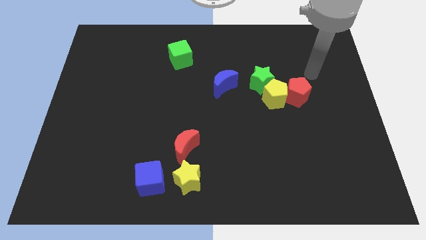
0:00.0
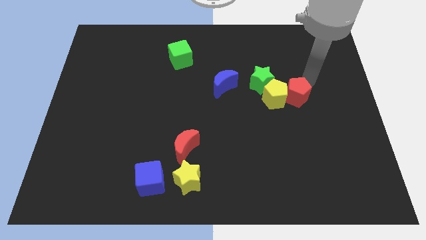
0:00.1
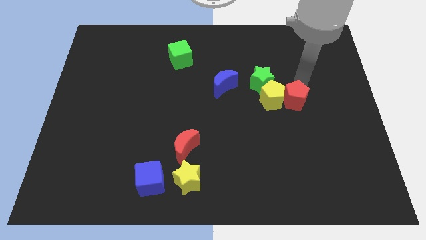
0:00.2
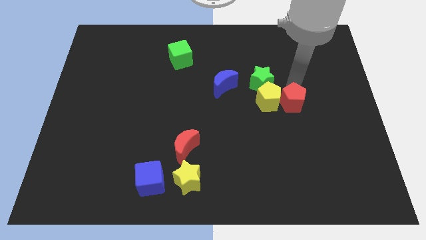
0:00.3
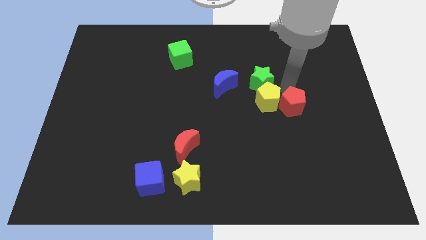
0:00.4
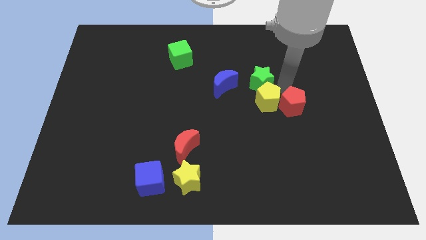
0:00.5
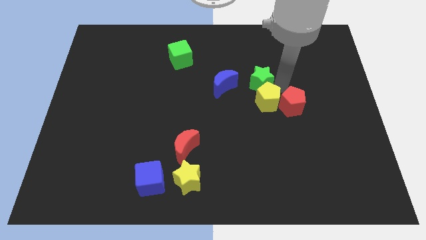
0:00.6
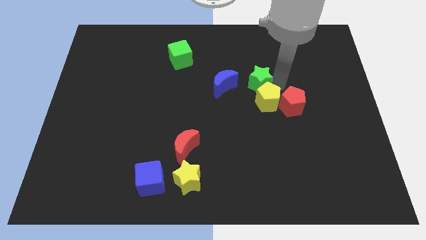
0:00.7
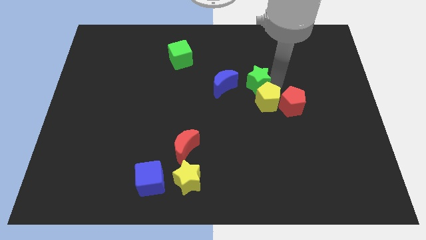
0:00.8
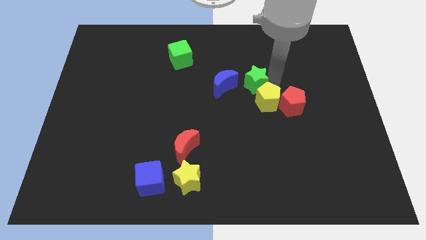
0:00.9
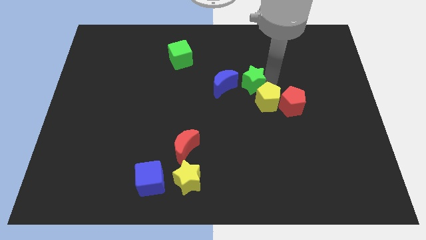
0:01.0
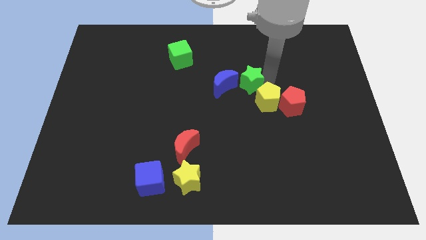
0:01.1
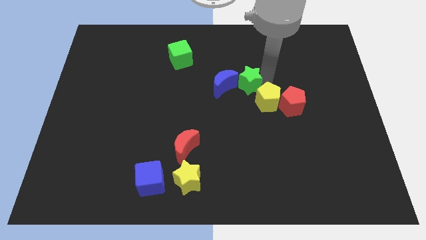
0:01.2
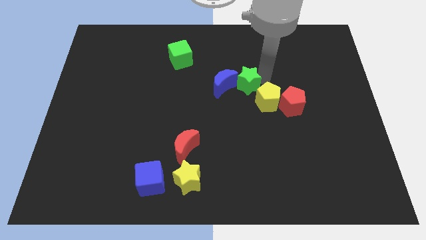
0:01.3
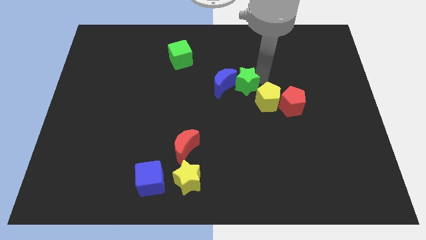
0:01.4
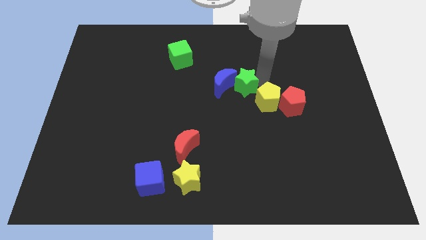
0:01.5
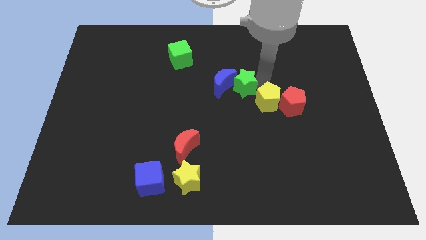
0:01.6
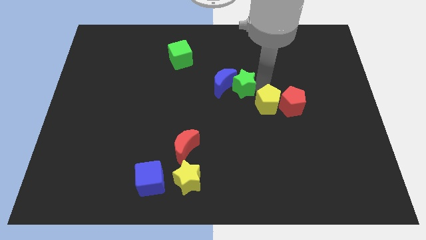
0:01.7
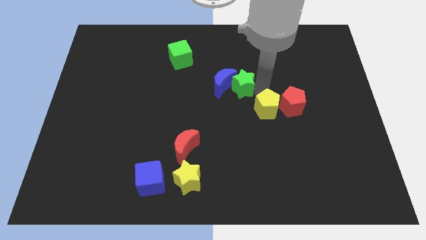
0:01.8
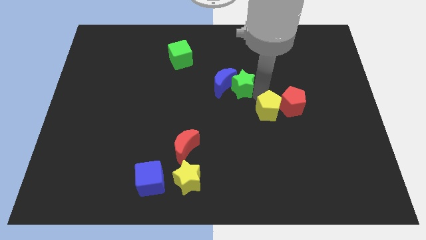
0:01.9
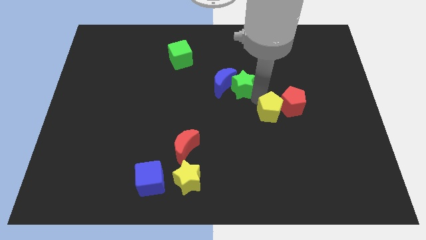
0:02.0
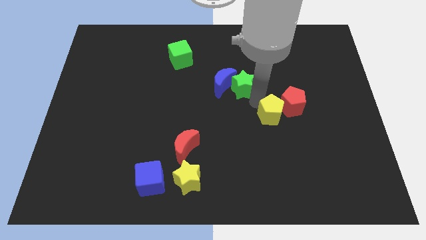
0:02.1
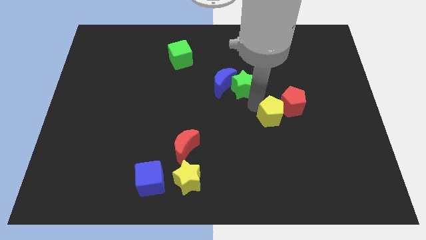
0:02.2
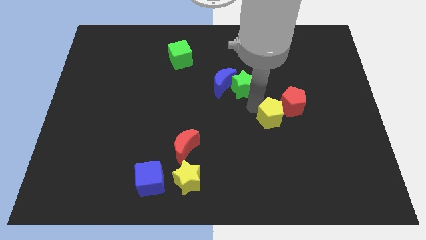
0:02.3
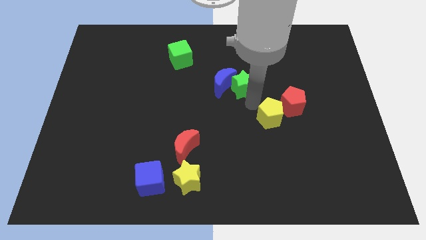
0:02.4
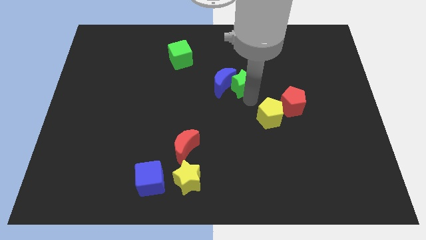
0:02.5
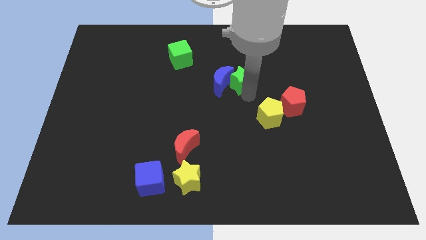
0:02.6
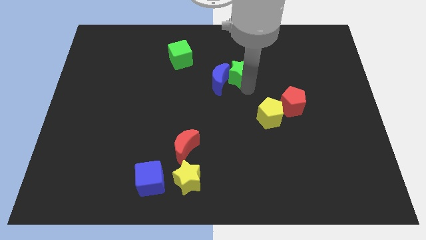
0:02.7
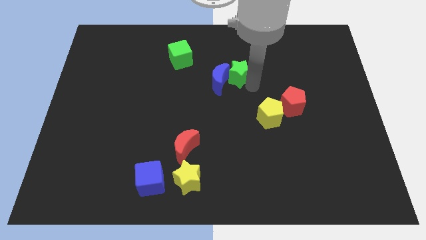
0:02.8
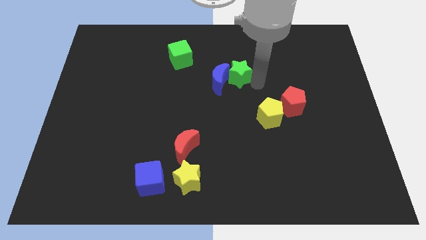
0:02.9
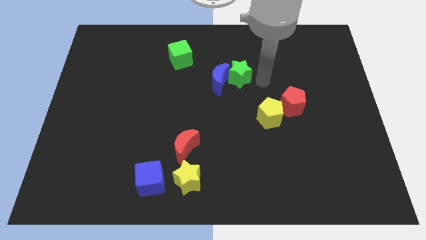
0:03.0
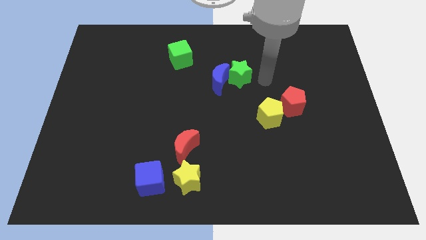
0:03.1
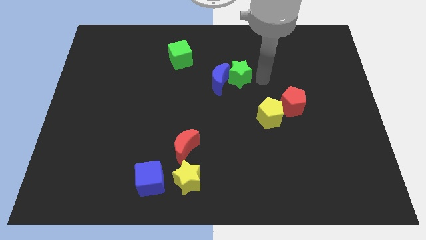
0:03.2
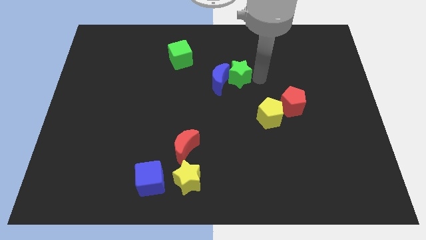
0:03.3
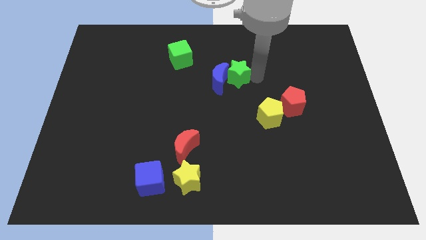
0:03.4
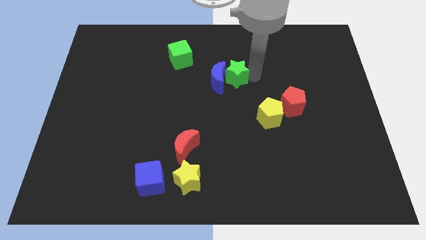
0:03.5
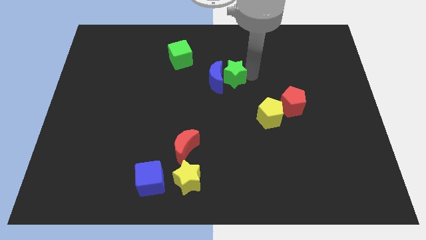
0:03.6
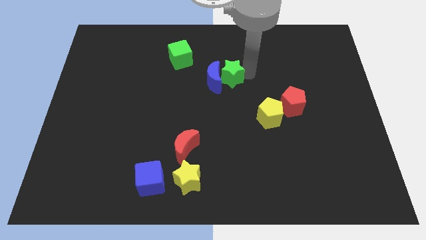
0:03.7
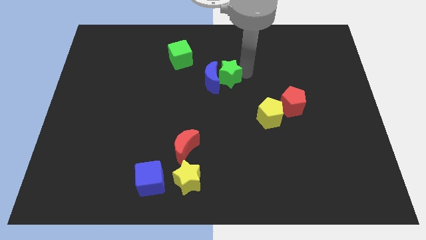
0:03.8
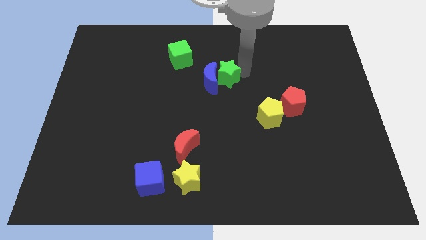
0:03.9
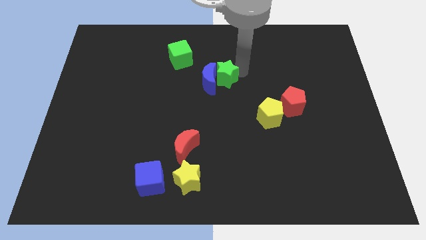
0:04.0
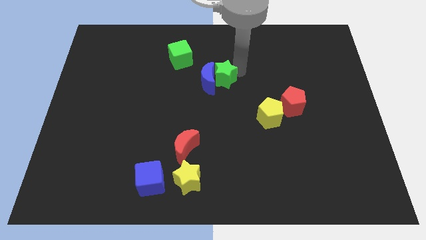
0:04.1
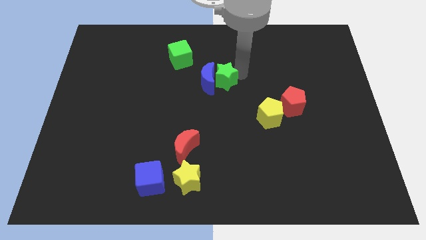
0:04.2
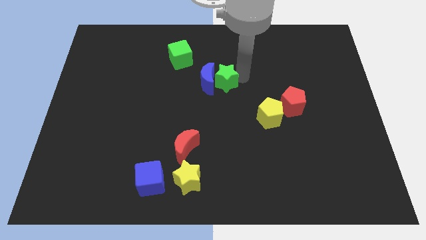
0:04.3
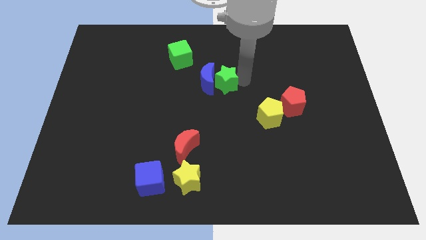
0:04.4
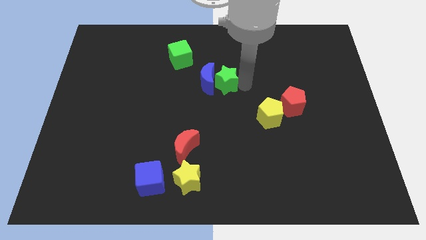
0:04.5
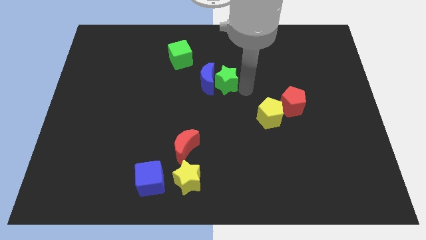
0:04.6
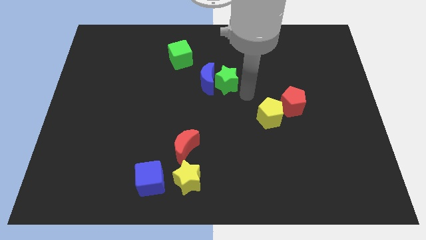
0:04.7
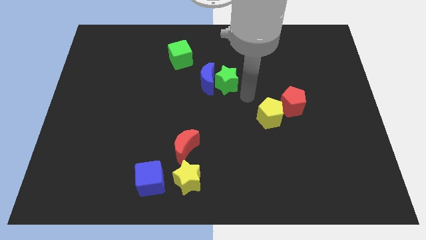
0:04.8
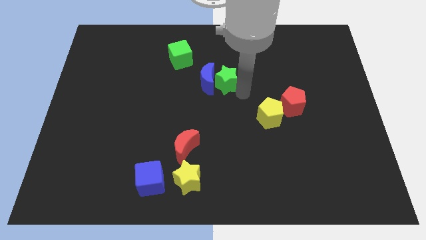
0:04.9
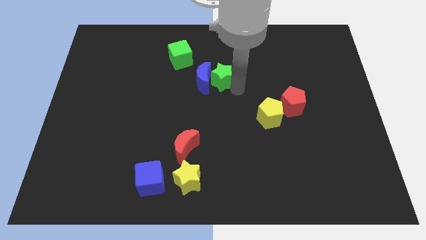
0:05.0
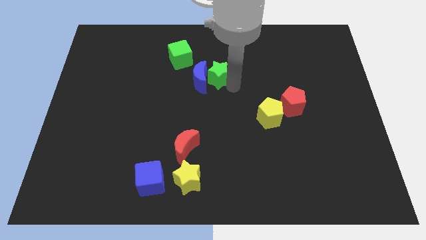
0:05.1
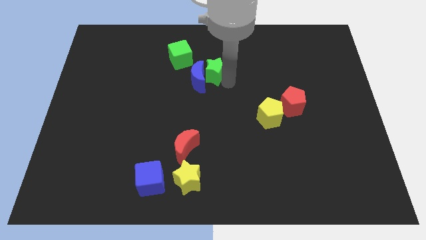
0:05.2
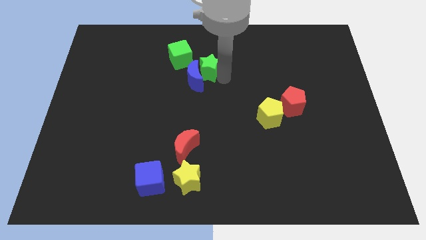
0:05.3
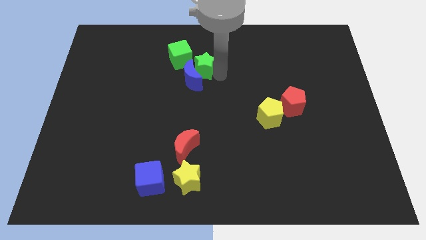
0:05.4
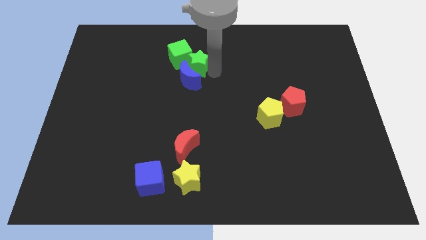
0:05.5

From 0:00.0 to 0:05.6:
move the green star next to the green cube

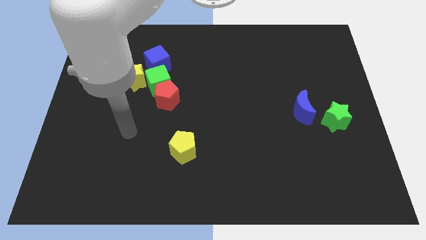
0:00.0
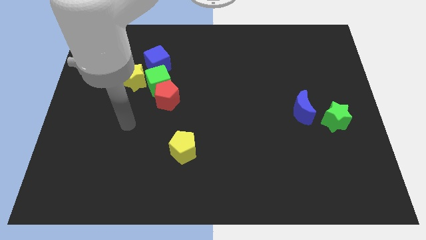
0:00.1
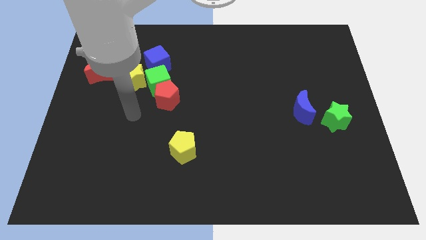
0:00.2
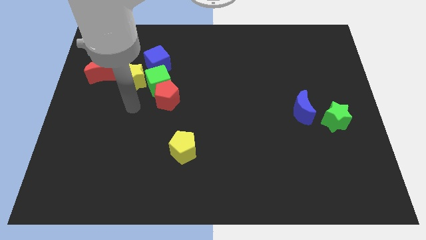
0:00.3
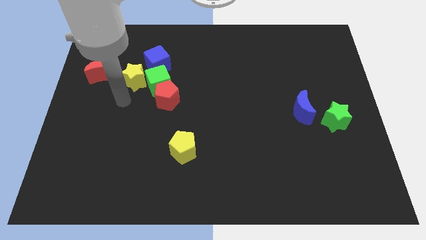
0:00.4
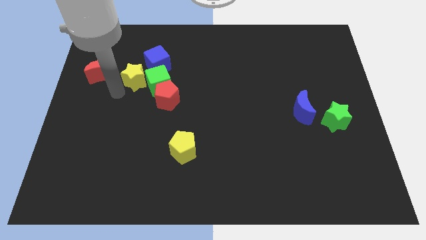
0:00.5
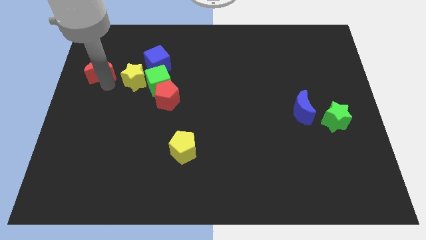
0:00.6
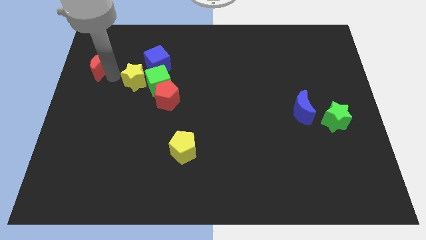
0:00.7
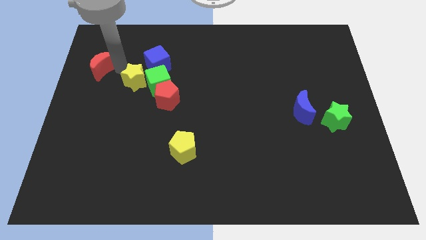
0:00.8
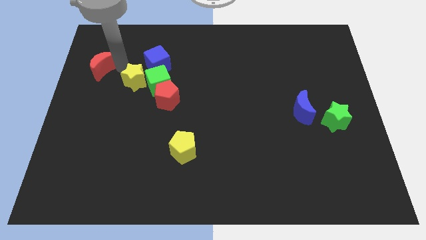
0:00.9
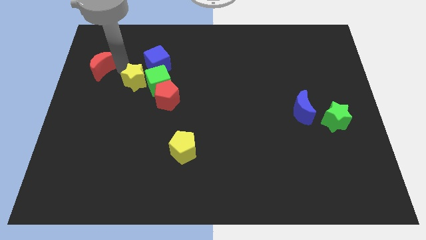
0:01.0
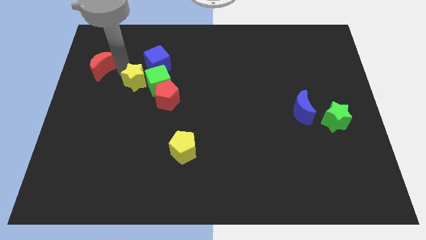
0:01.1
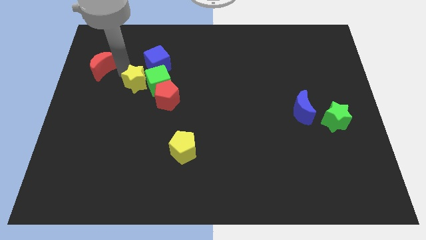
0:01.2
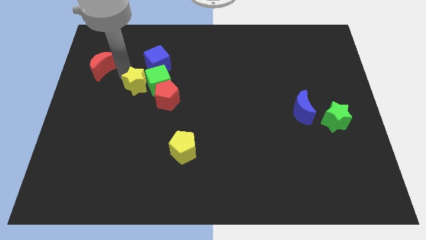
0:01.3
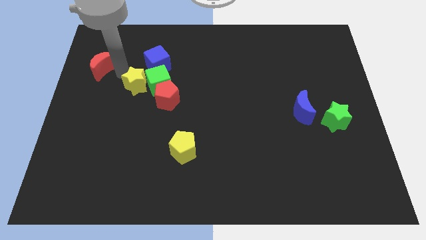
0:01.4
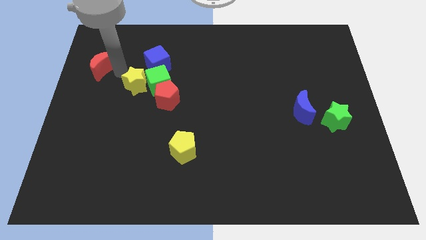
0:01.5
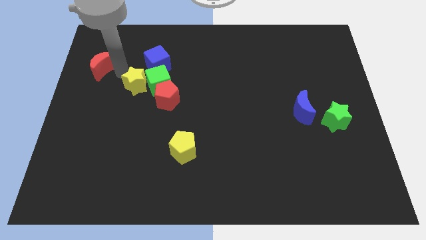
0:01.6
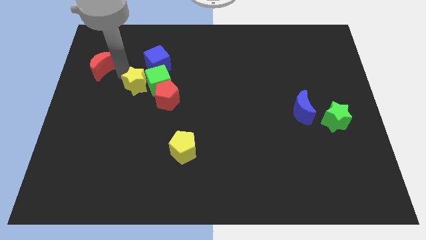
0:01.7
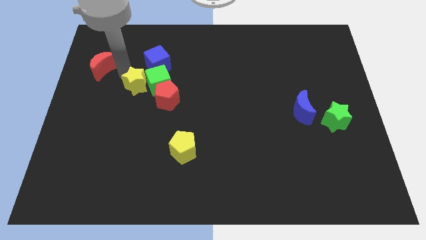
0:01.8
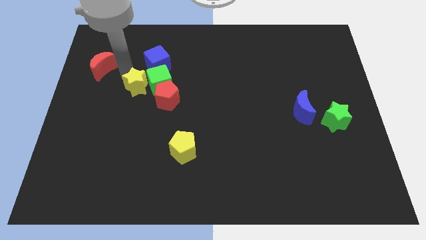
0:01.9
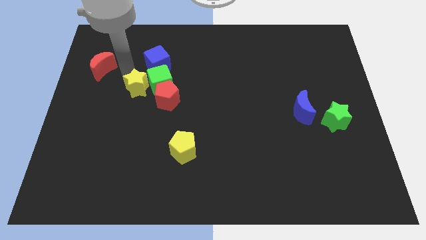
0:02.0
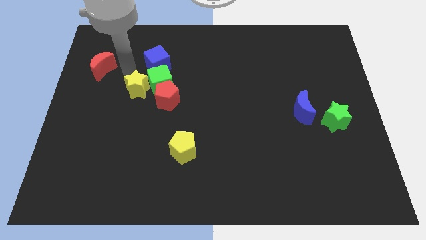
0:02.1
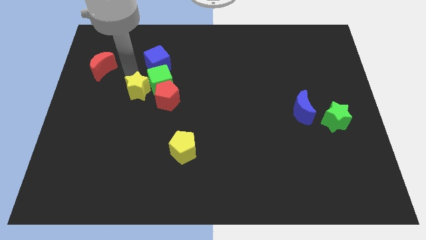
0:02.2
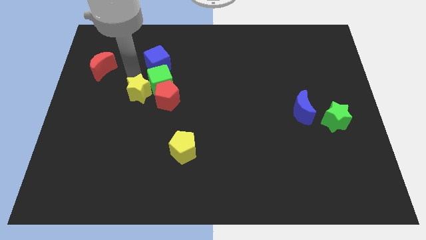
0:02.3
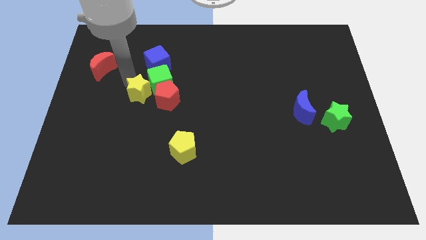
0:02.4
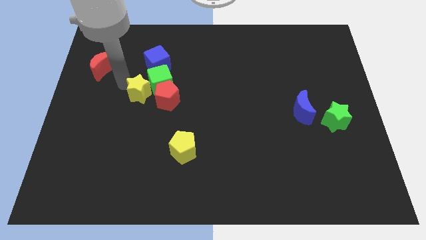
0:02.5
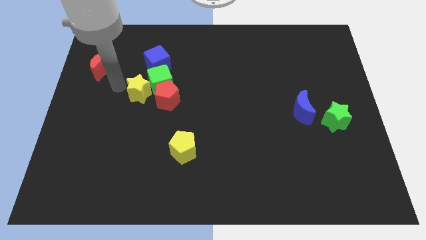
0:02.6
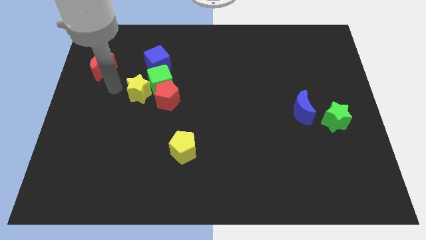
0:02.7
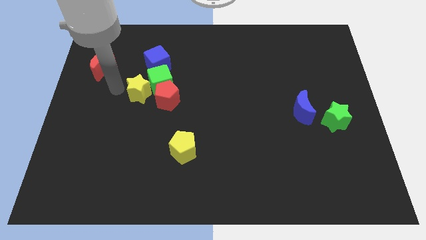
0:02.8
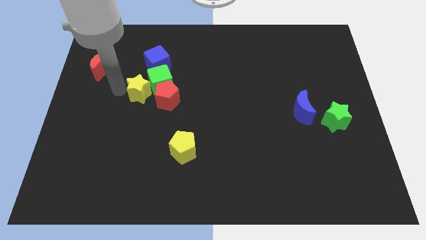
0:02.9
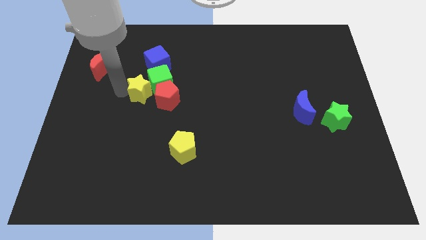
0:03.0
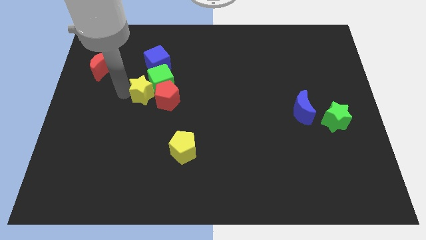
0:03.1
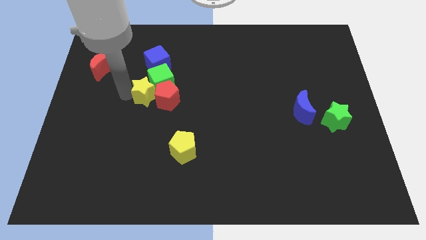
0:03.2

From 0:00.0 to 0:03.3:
push the yellow star close to the red pentagon
